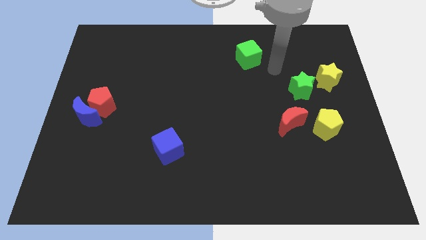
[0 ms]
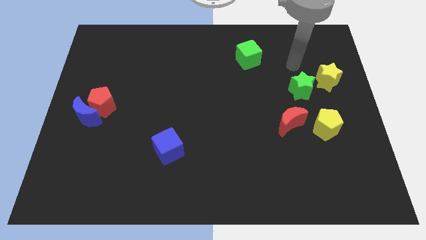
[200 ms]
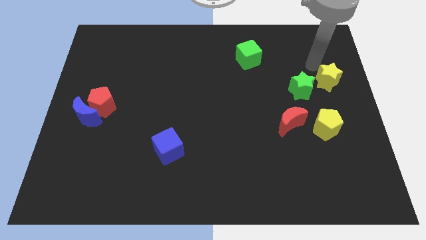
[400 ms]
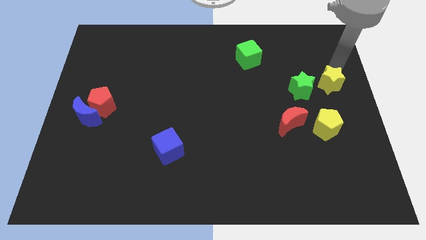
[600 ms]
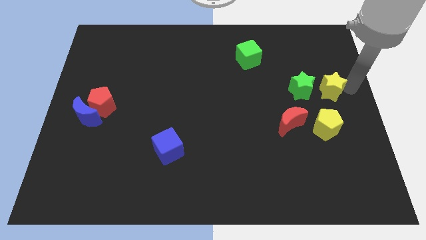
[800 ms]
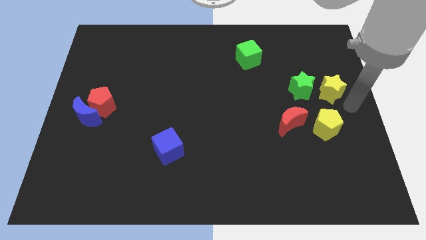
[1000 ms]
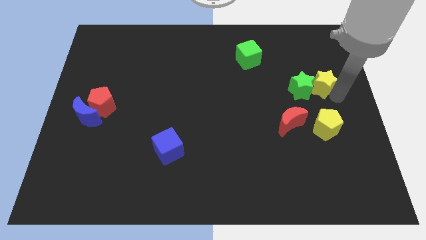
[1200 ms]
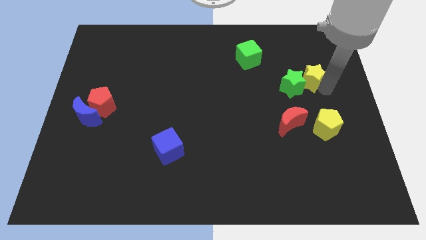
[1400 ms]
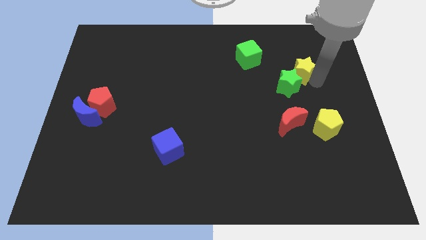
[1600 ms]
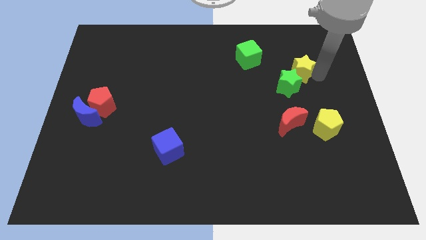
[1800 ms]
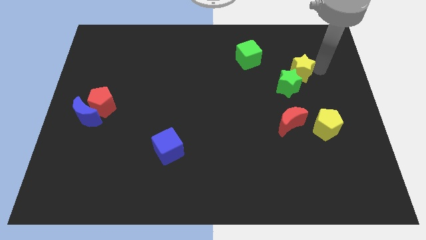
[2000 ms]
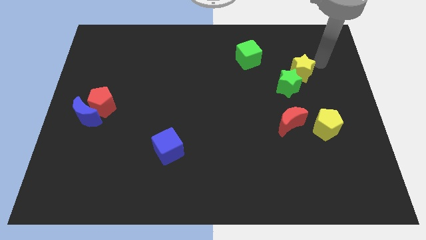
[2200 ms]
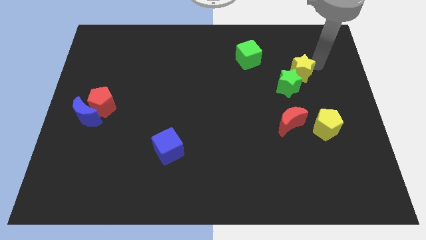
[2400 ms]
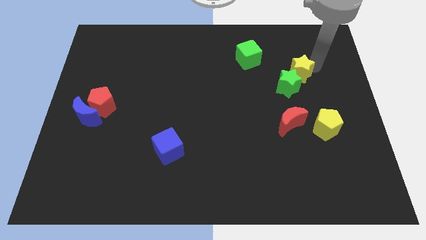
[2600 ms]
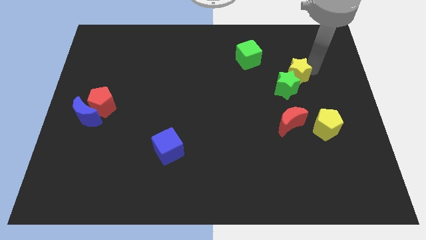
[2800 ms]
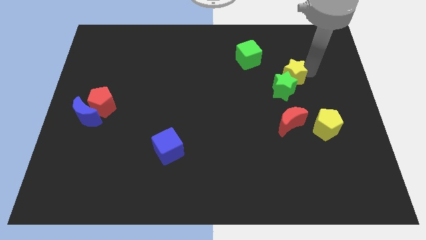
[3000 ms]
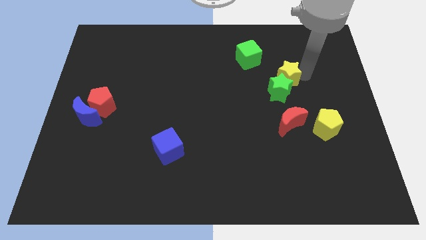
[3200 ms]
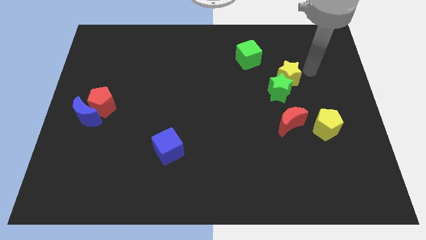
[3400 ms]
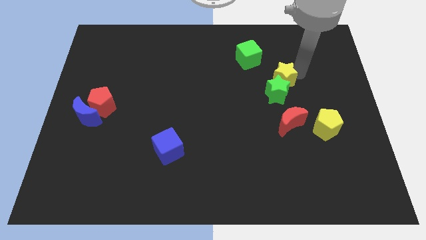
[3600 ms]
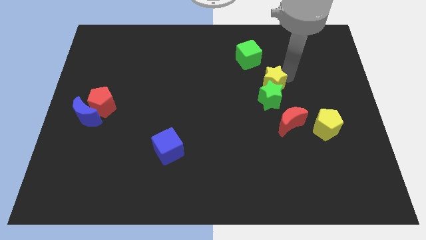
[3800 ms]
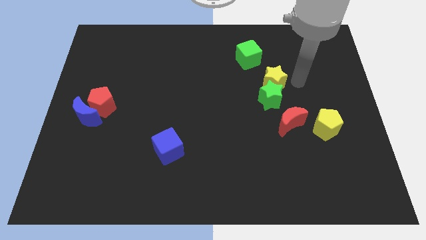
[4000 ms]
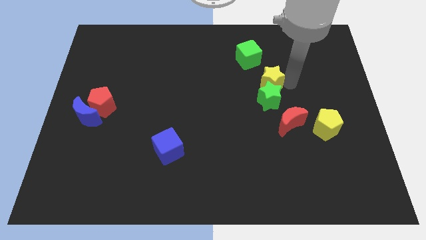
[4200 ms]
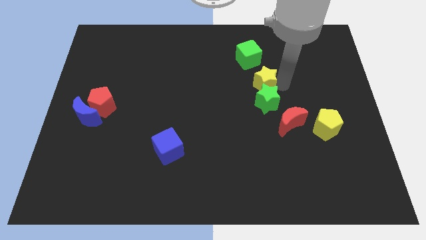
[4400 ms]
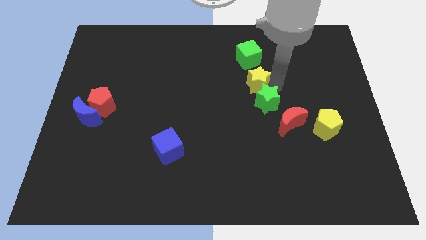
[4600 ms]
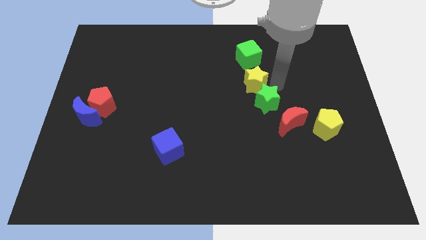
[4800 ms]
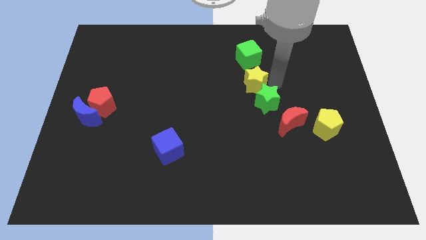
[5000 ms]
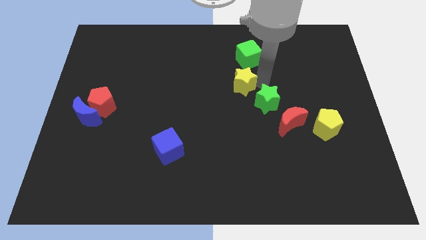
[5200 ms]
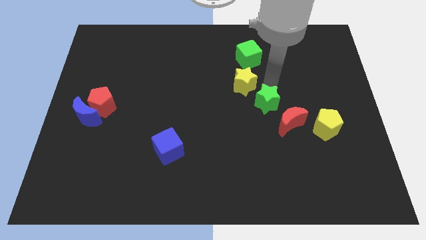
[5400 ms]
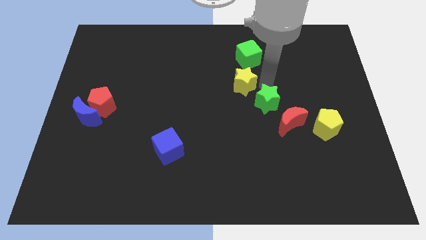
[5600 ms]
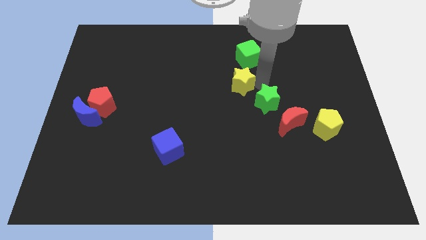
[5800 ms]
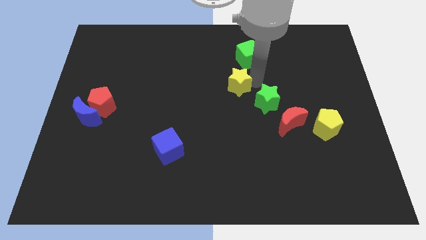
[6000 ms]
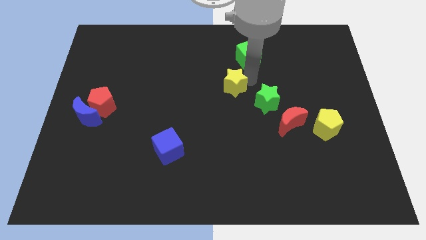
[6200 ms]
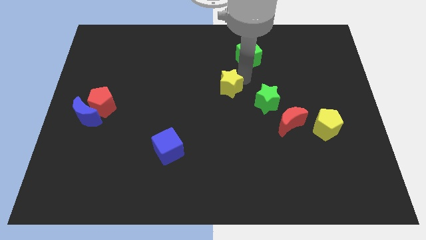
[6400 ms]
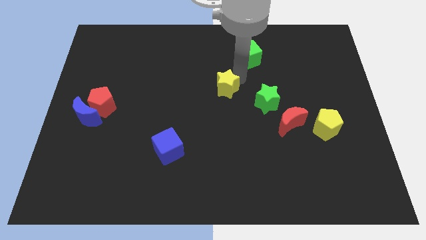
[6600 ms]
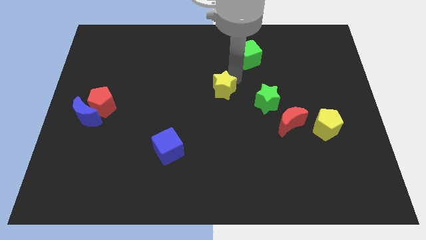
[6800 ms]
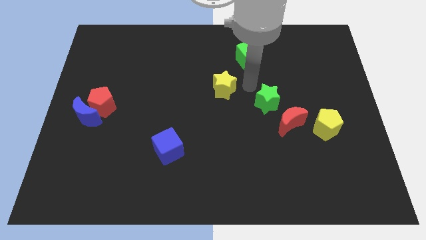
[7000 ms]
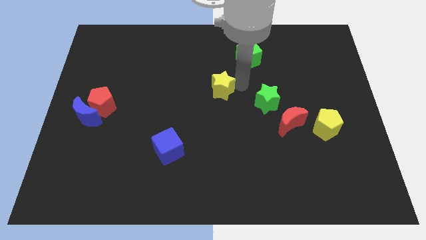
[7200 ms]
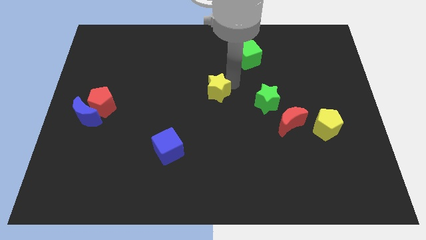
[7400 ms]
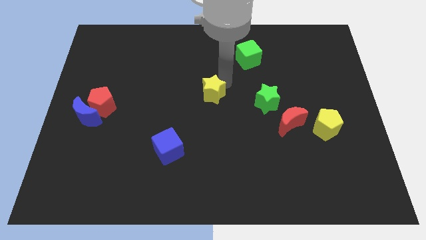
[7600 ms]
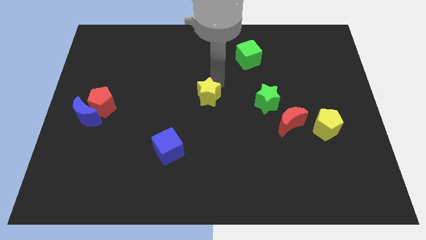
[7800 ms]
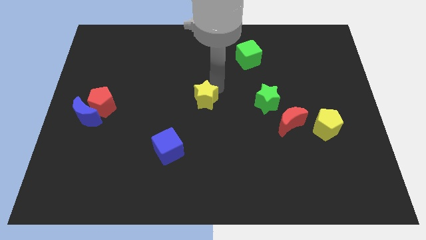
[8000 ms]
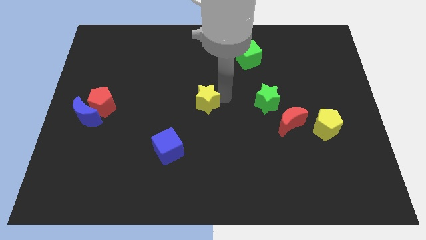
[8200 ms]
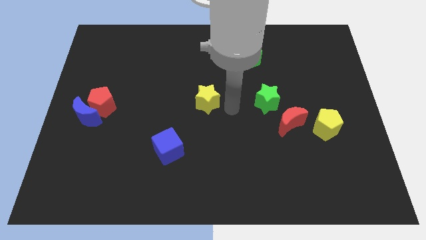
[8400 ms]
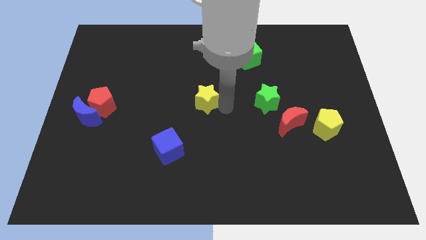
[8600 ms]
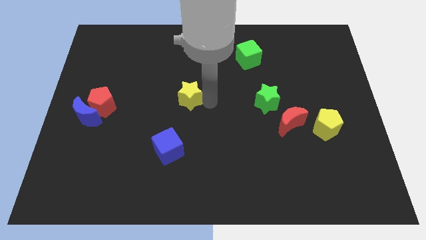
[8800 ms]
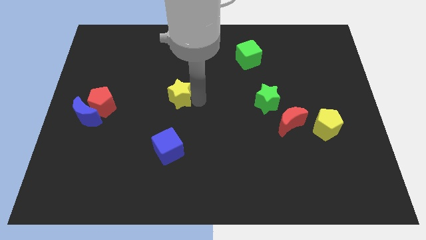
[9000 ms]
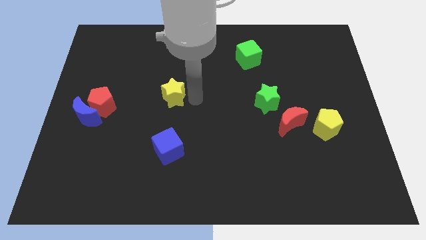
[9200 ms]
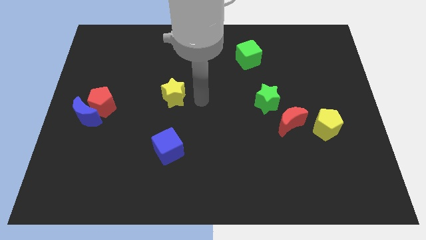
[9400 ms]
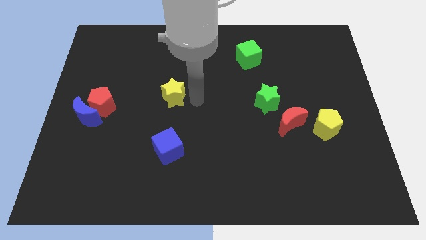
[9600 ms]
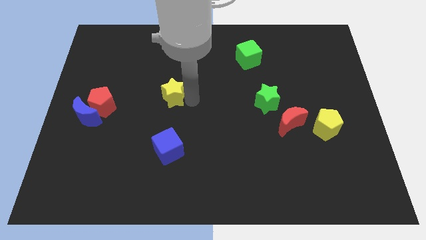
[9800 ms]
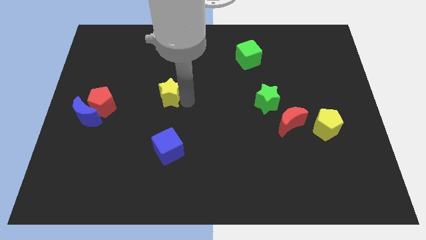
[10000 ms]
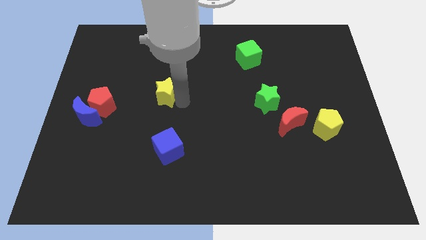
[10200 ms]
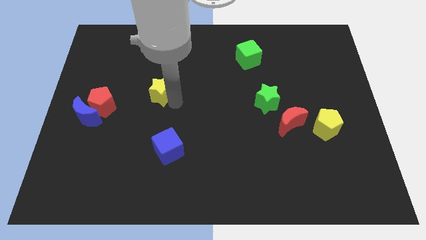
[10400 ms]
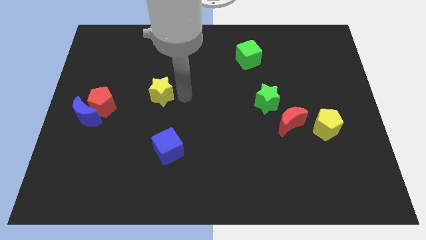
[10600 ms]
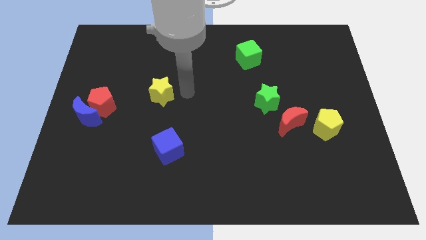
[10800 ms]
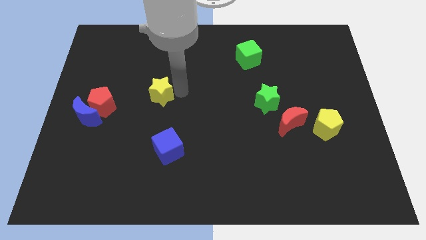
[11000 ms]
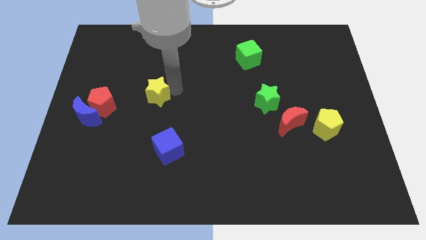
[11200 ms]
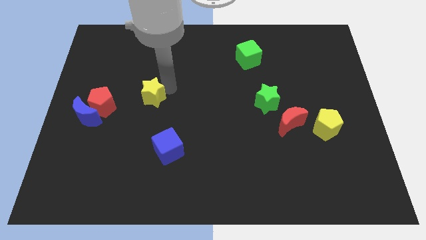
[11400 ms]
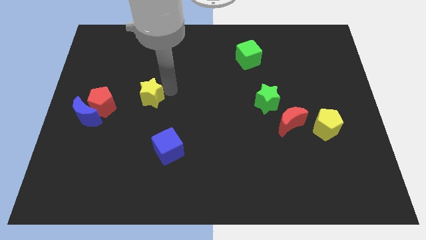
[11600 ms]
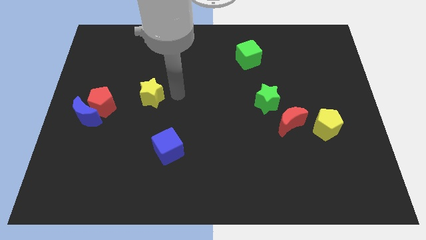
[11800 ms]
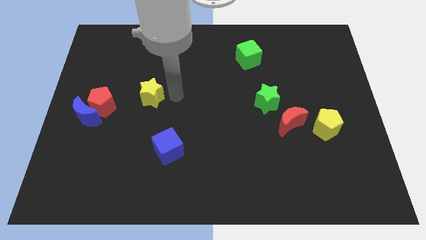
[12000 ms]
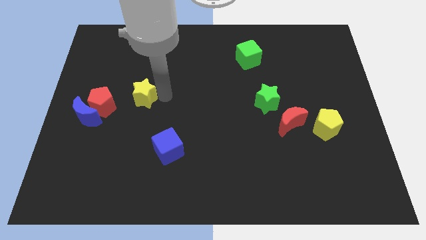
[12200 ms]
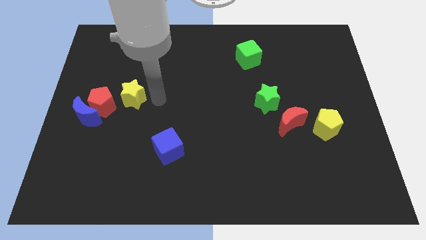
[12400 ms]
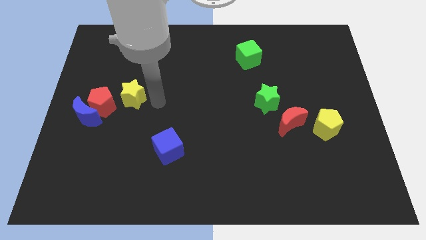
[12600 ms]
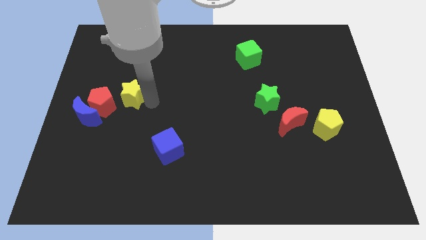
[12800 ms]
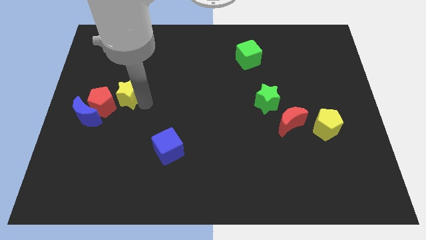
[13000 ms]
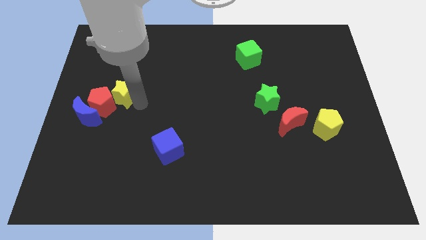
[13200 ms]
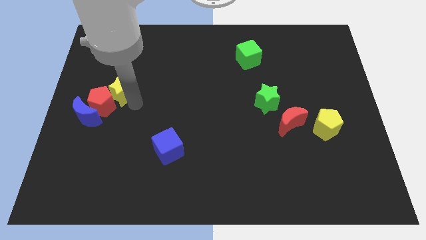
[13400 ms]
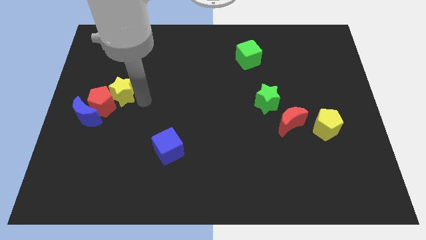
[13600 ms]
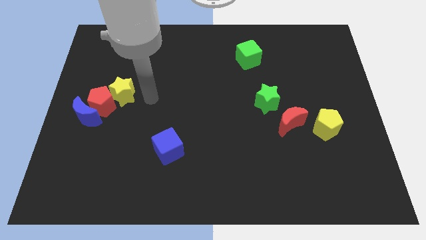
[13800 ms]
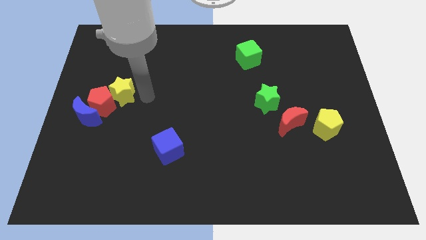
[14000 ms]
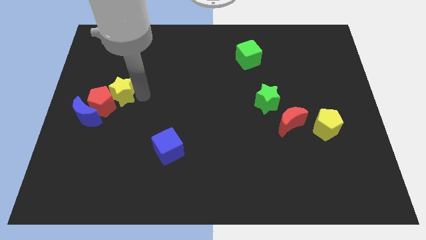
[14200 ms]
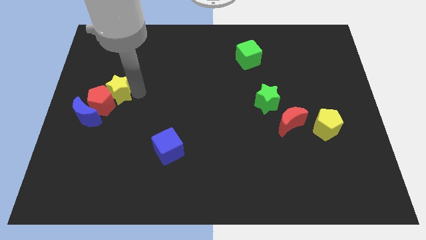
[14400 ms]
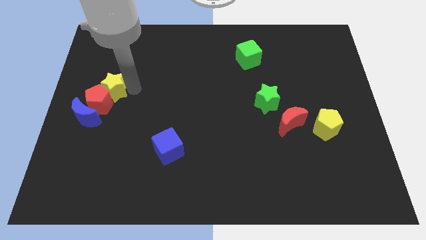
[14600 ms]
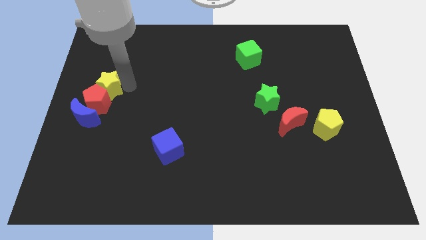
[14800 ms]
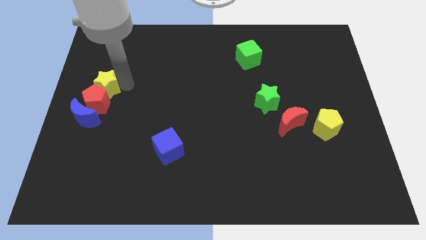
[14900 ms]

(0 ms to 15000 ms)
put the yellow star to the center left
